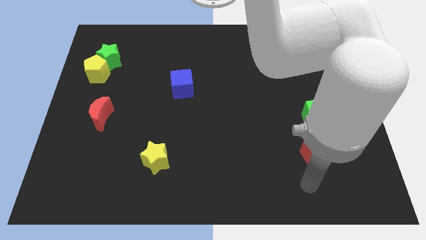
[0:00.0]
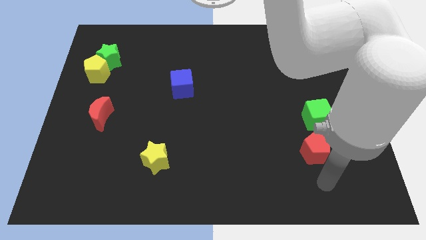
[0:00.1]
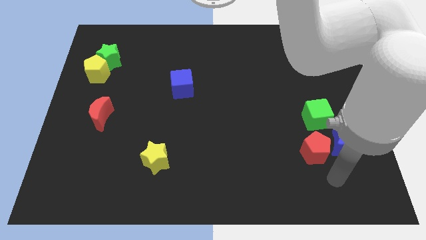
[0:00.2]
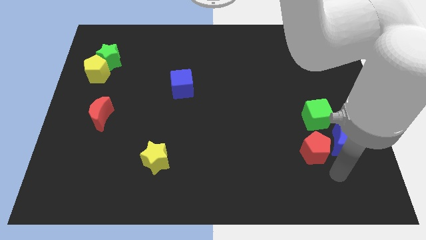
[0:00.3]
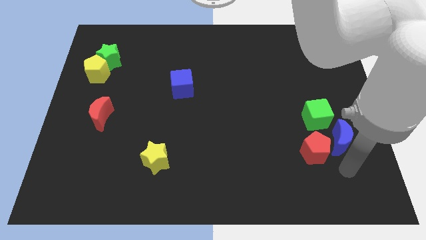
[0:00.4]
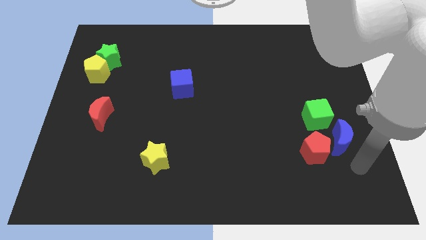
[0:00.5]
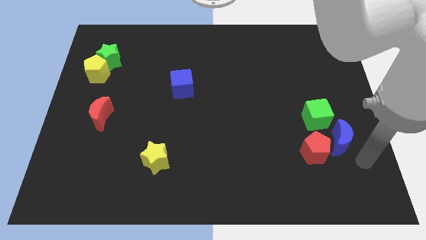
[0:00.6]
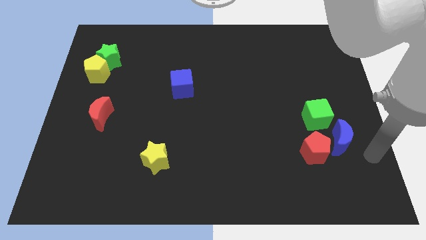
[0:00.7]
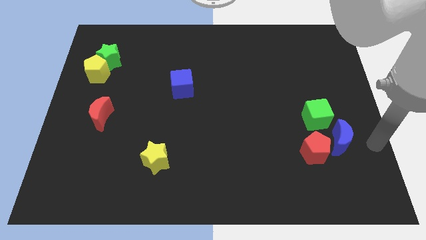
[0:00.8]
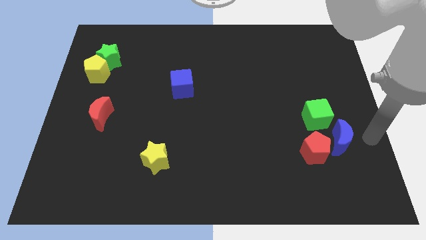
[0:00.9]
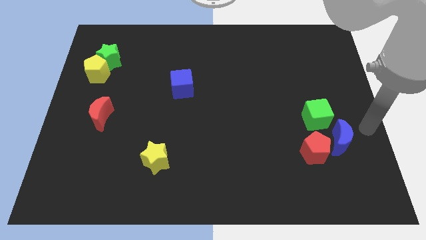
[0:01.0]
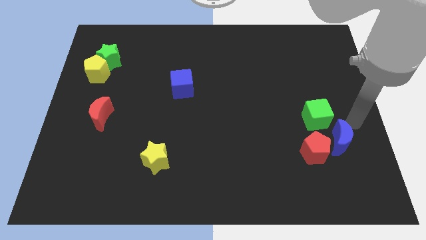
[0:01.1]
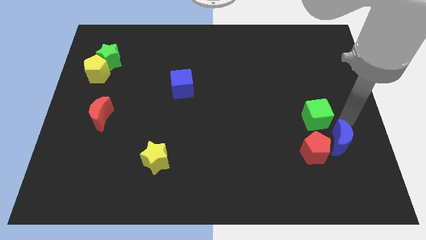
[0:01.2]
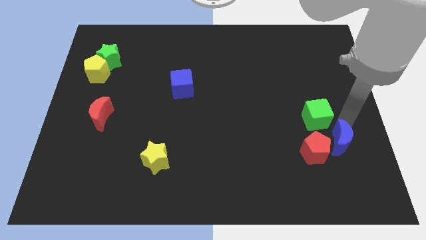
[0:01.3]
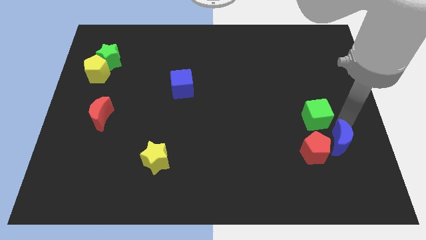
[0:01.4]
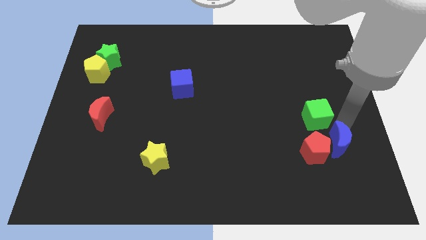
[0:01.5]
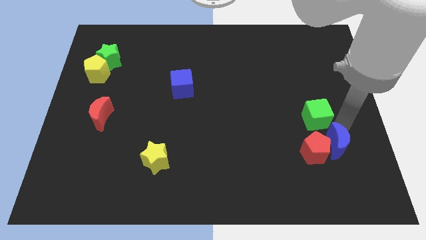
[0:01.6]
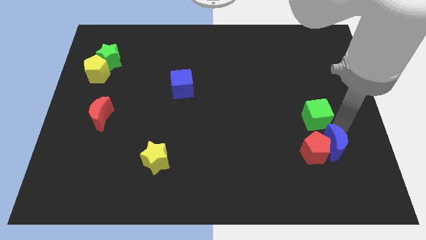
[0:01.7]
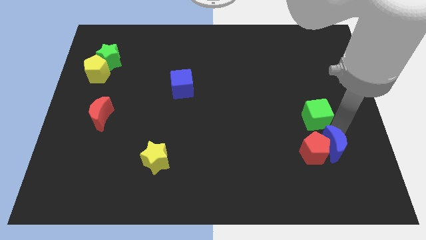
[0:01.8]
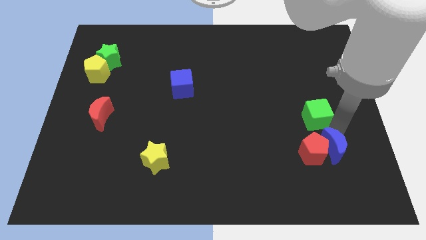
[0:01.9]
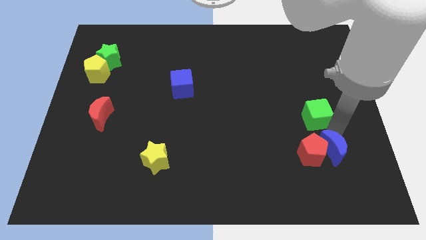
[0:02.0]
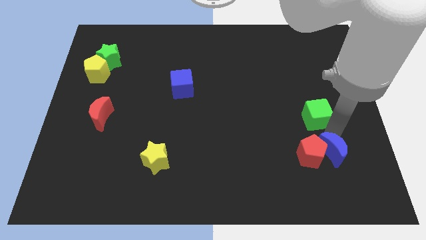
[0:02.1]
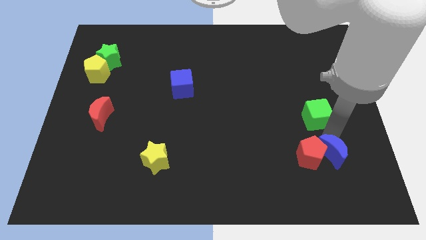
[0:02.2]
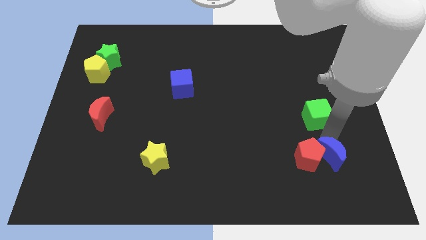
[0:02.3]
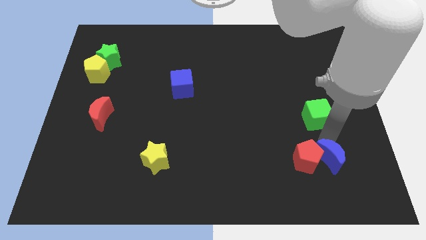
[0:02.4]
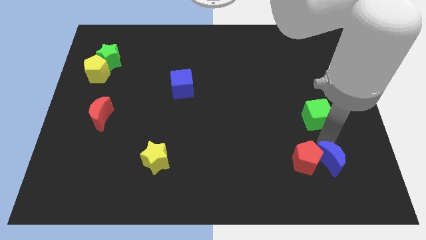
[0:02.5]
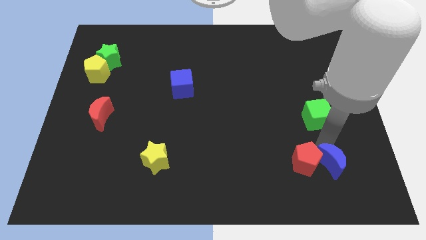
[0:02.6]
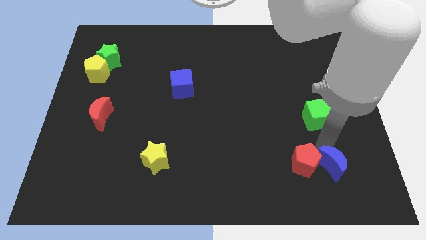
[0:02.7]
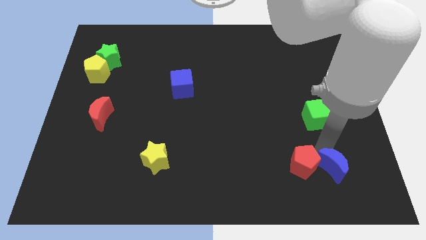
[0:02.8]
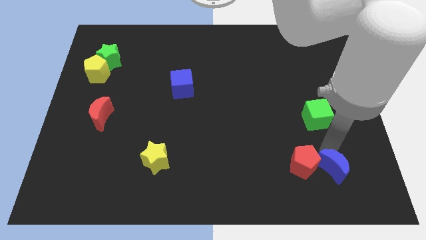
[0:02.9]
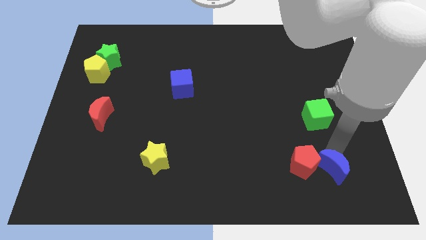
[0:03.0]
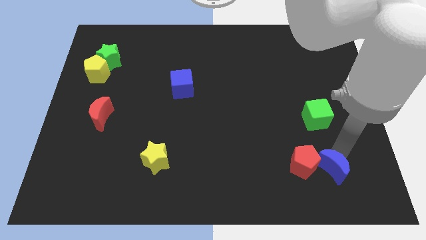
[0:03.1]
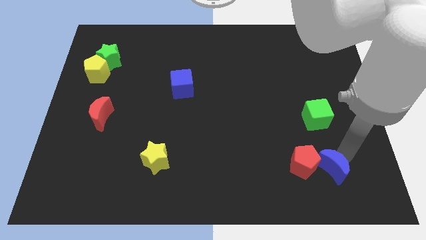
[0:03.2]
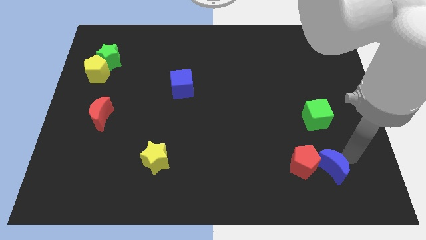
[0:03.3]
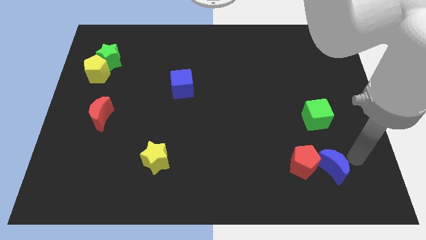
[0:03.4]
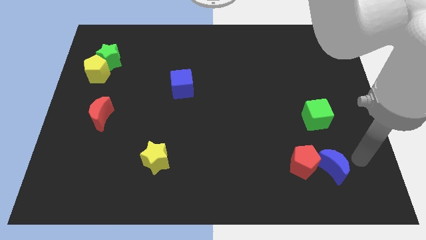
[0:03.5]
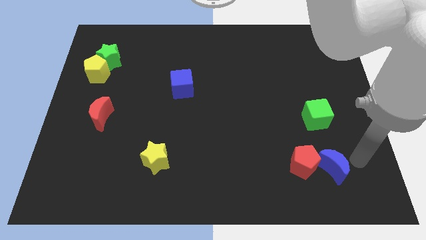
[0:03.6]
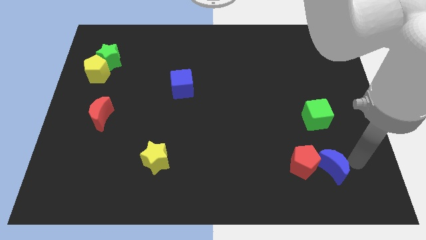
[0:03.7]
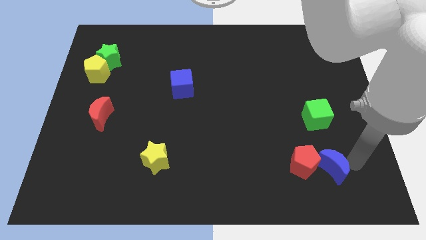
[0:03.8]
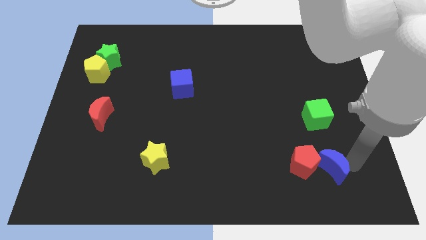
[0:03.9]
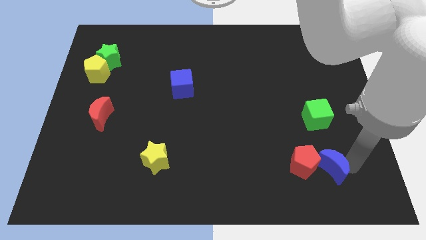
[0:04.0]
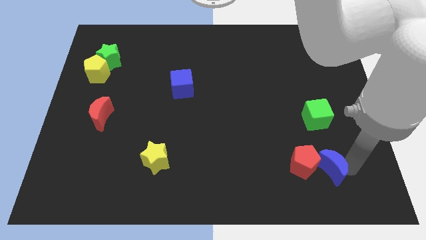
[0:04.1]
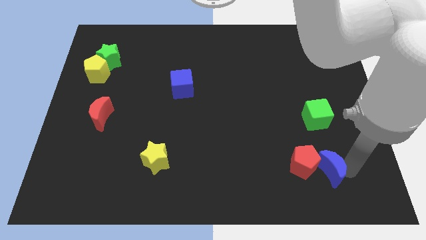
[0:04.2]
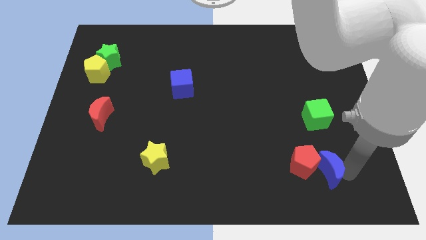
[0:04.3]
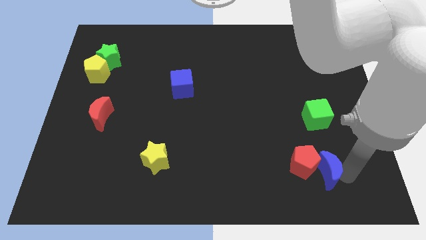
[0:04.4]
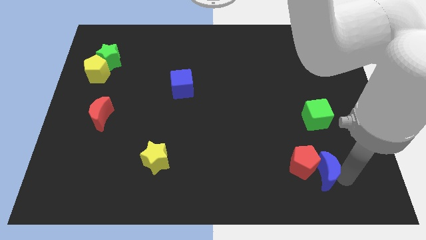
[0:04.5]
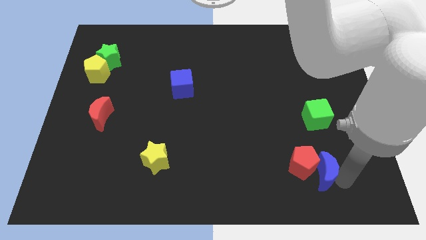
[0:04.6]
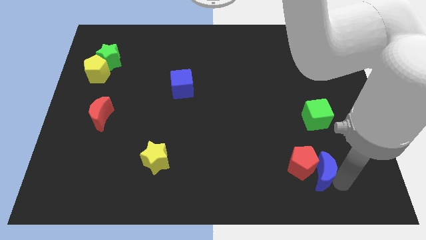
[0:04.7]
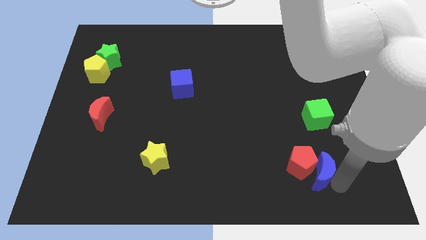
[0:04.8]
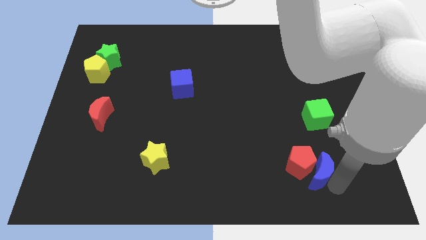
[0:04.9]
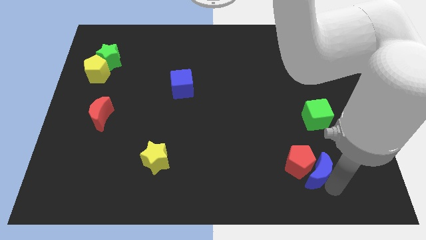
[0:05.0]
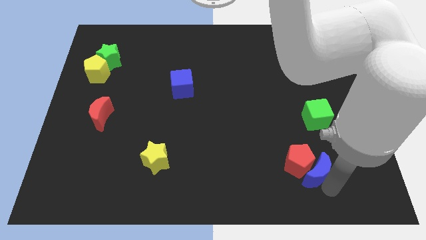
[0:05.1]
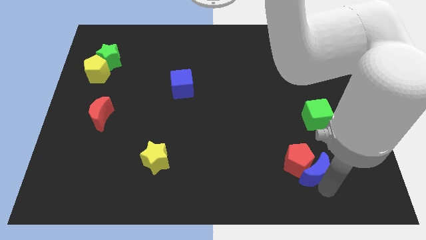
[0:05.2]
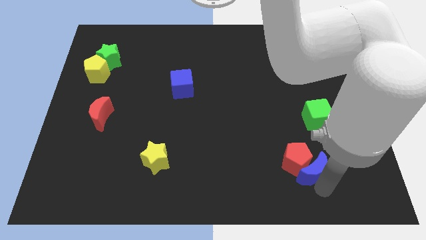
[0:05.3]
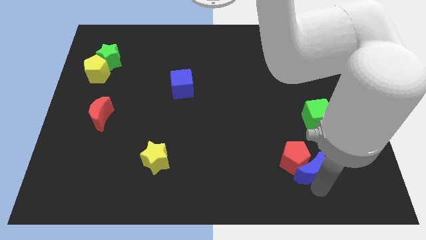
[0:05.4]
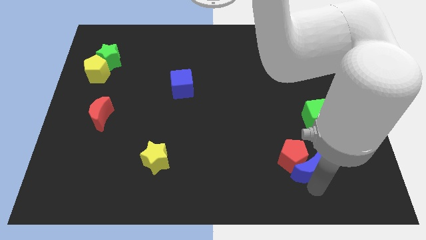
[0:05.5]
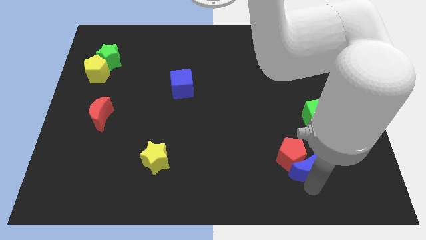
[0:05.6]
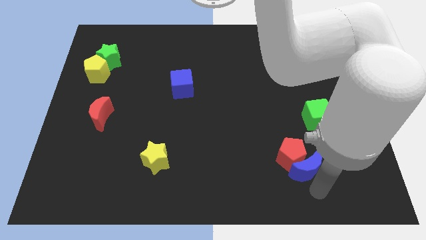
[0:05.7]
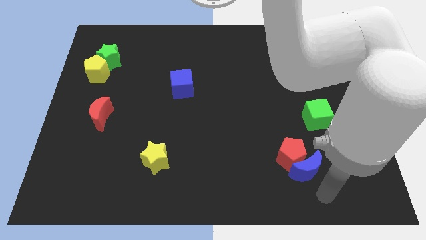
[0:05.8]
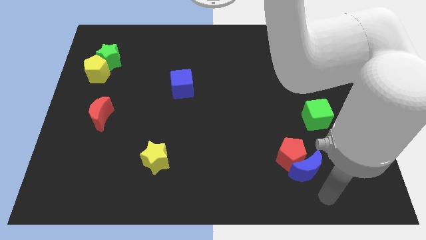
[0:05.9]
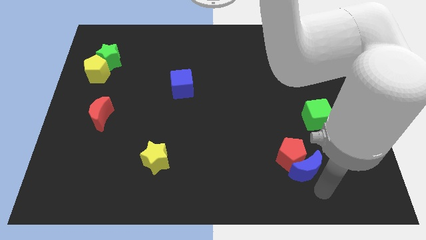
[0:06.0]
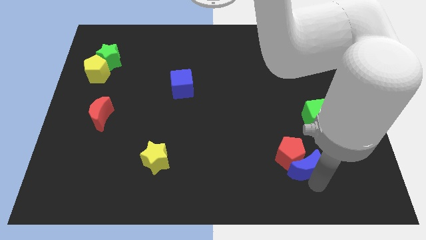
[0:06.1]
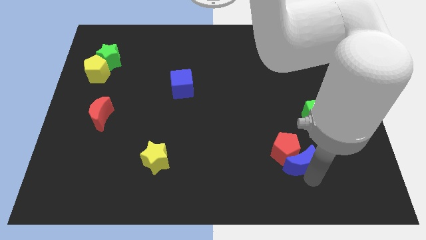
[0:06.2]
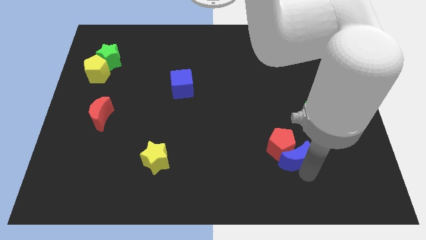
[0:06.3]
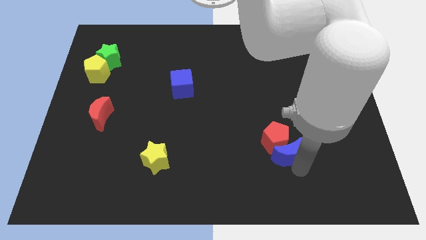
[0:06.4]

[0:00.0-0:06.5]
move the blue moon to the bottom left side of the green cube

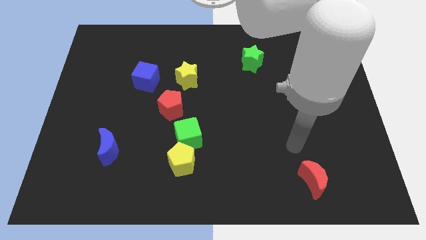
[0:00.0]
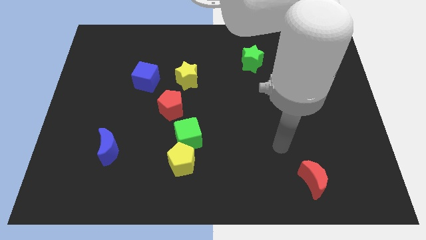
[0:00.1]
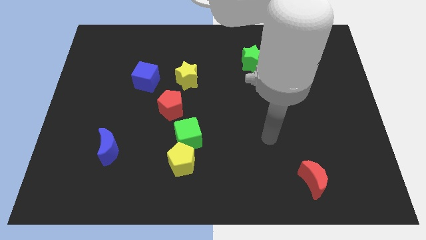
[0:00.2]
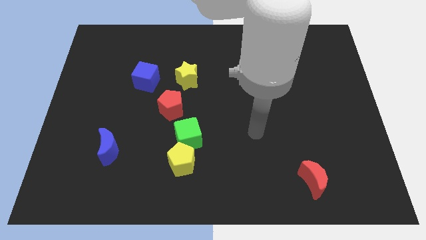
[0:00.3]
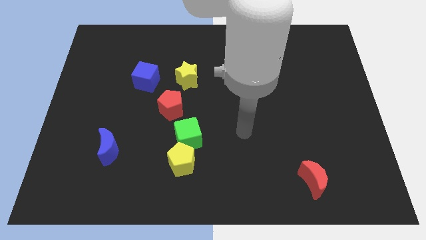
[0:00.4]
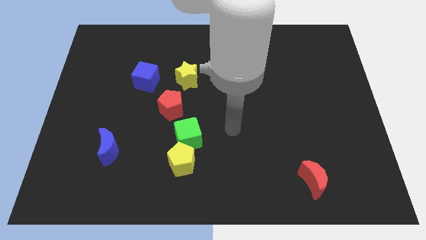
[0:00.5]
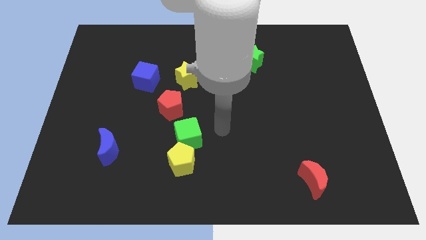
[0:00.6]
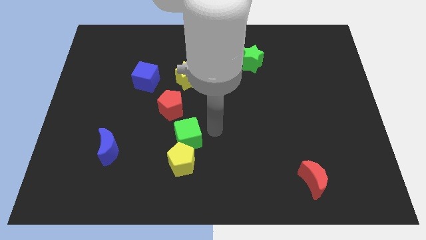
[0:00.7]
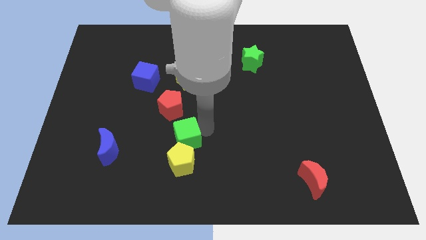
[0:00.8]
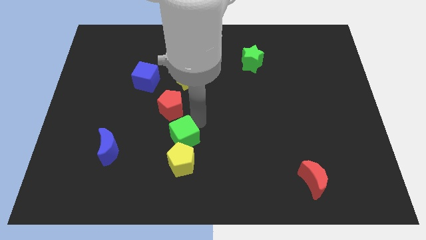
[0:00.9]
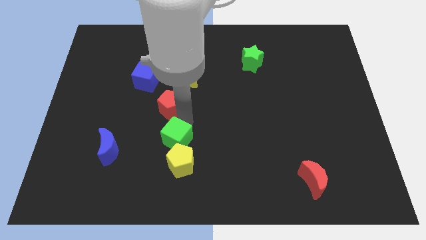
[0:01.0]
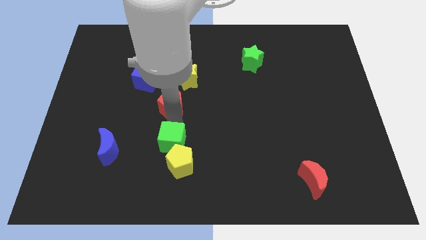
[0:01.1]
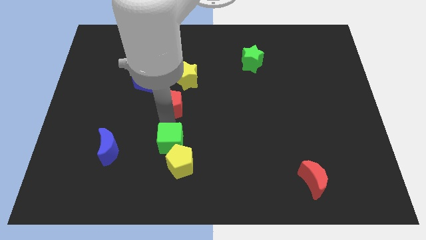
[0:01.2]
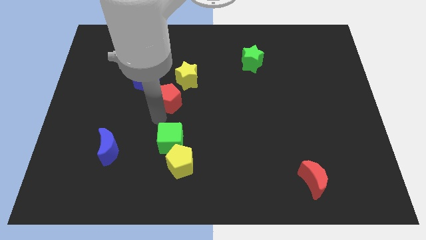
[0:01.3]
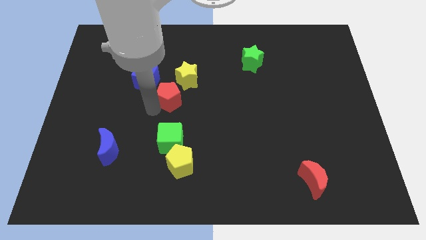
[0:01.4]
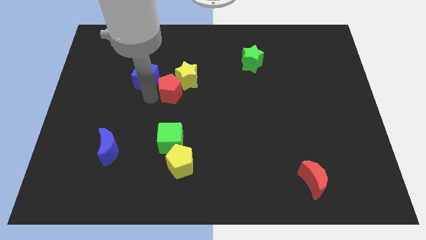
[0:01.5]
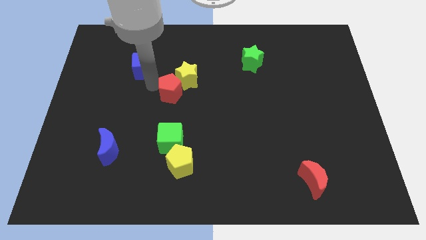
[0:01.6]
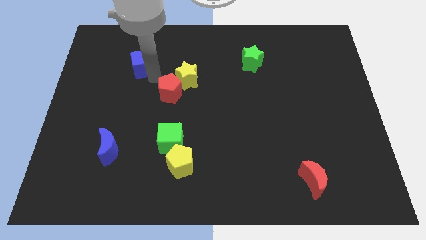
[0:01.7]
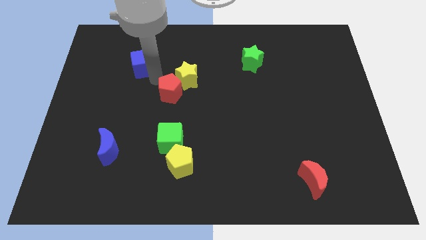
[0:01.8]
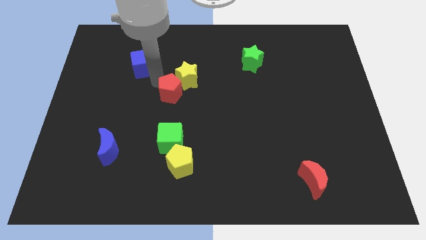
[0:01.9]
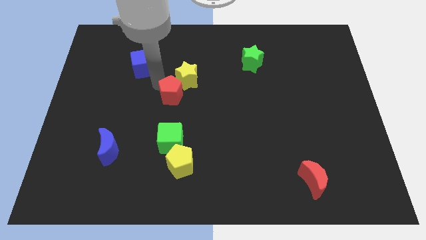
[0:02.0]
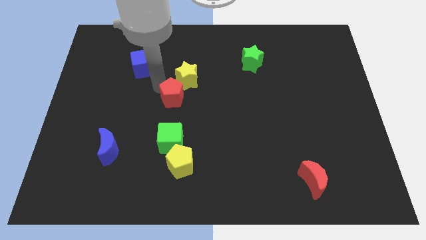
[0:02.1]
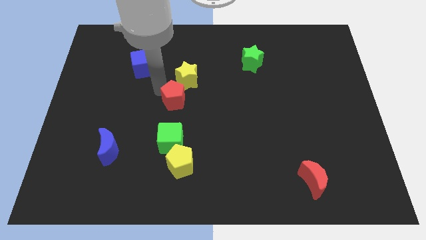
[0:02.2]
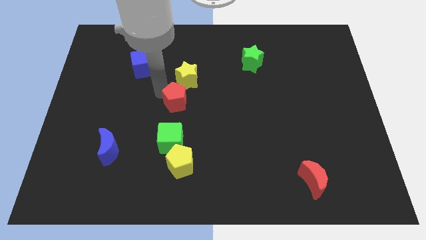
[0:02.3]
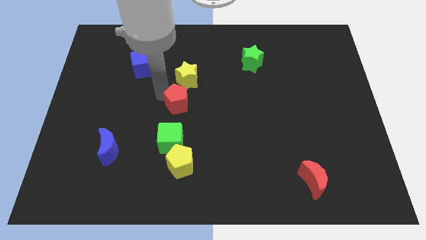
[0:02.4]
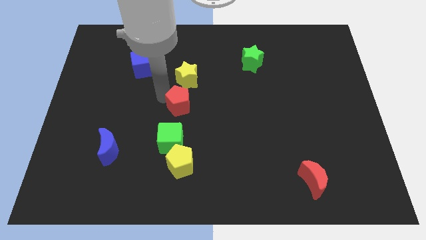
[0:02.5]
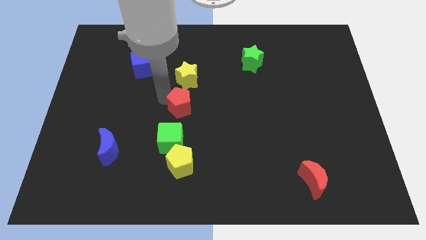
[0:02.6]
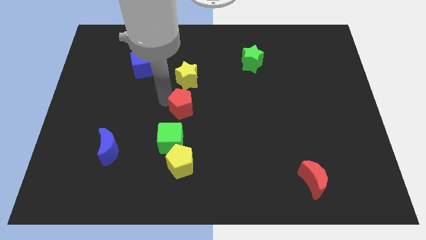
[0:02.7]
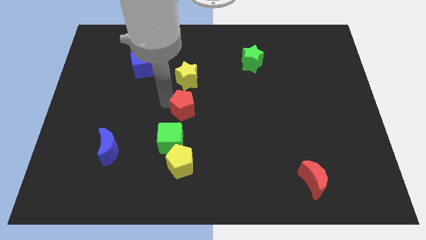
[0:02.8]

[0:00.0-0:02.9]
push the red pentagon to the top right of the green cube
